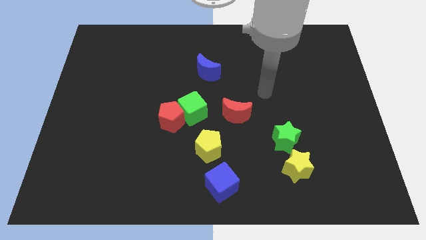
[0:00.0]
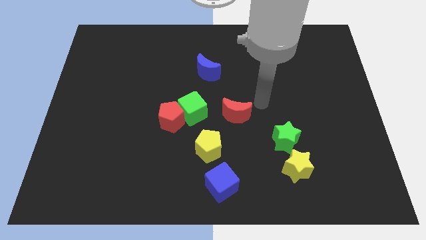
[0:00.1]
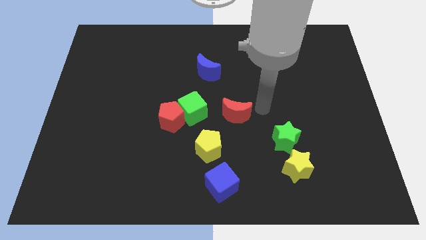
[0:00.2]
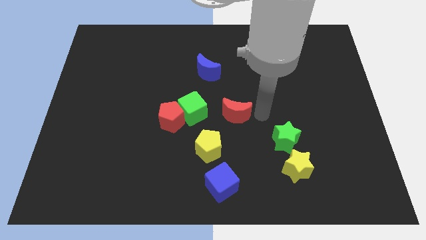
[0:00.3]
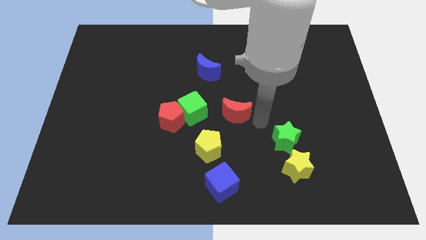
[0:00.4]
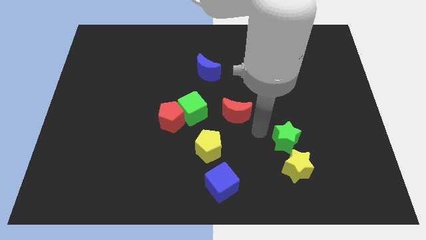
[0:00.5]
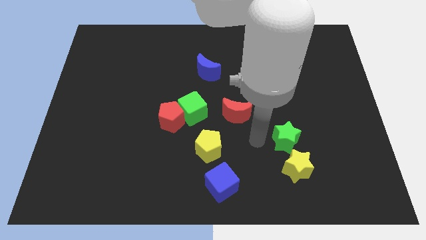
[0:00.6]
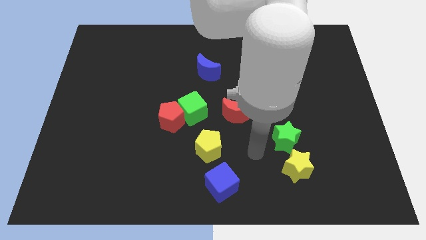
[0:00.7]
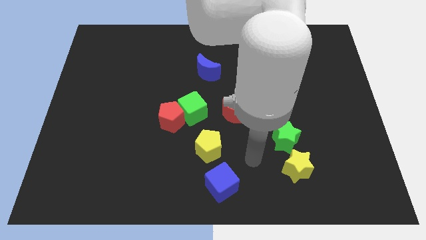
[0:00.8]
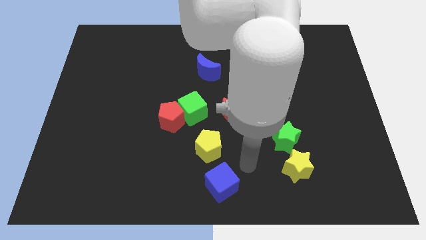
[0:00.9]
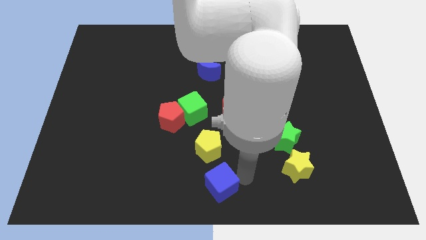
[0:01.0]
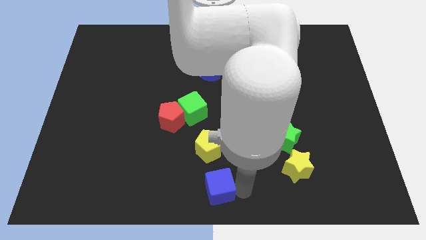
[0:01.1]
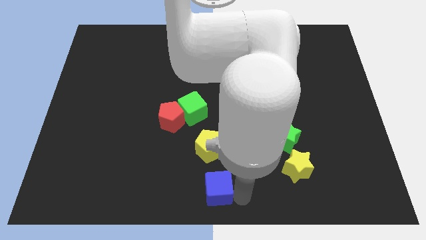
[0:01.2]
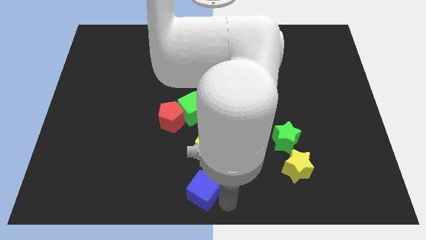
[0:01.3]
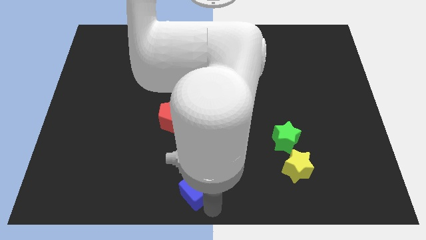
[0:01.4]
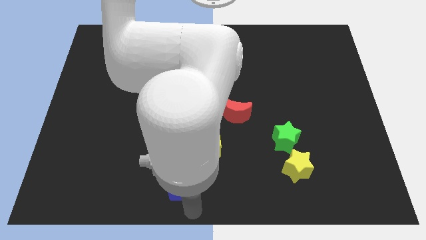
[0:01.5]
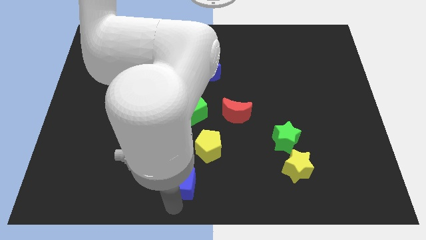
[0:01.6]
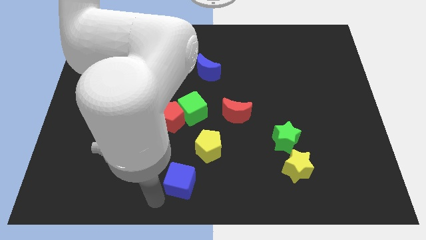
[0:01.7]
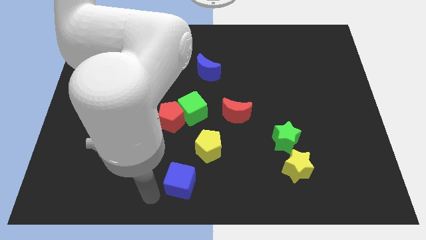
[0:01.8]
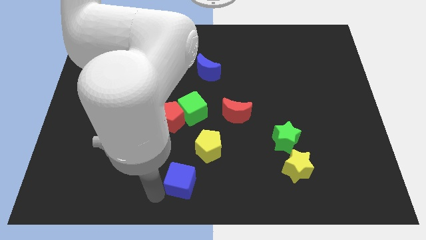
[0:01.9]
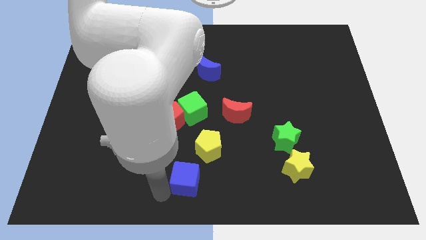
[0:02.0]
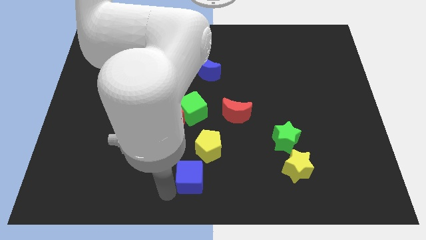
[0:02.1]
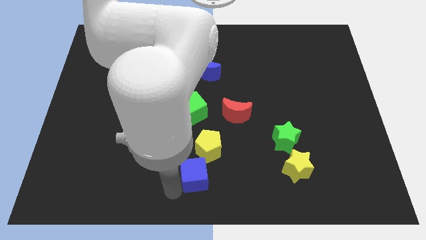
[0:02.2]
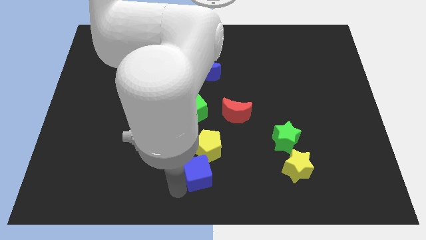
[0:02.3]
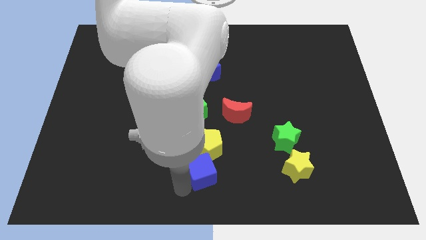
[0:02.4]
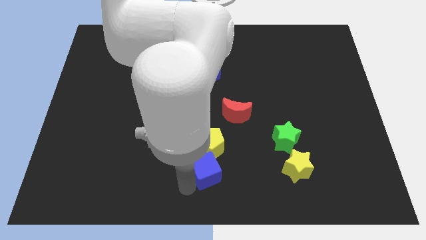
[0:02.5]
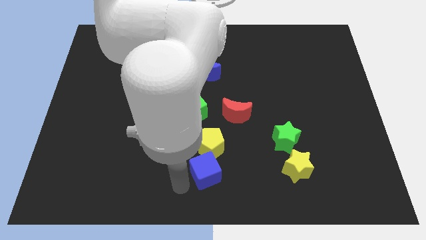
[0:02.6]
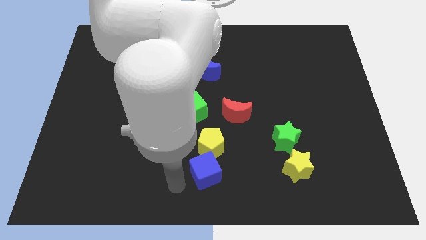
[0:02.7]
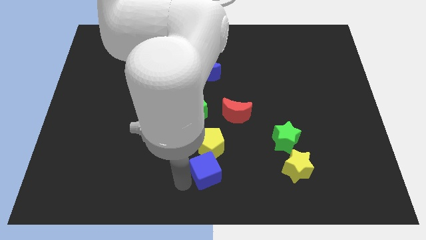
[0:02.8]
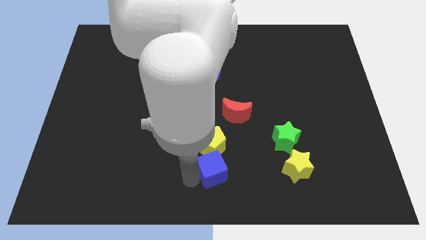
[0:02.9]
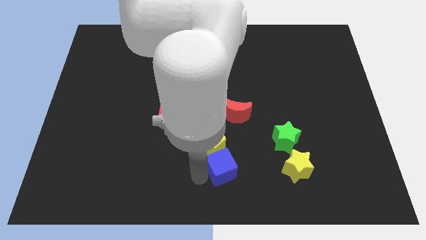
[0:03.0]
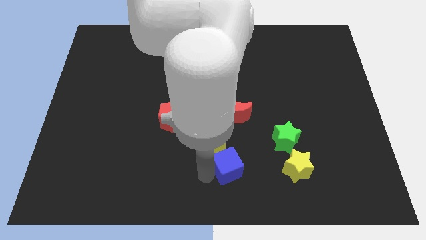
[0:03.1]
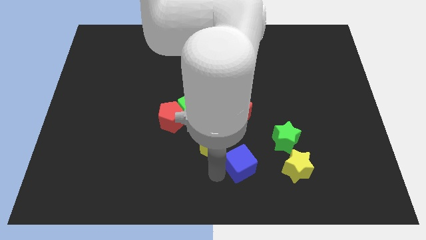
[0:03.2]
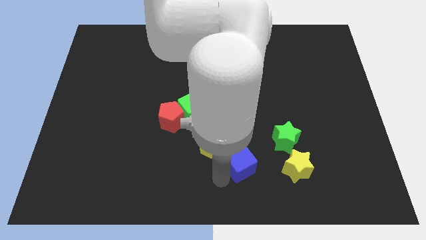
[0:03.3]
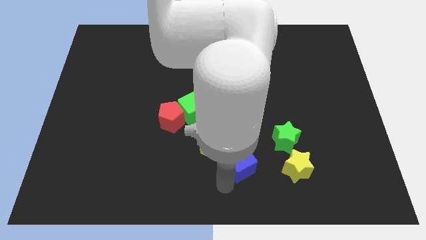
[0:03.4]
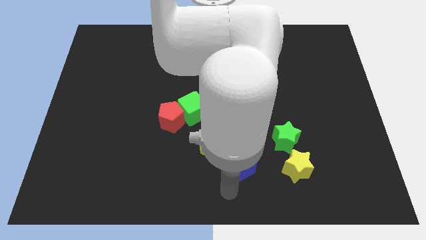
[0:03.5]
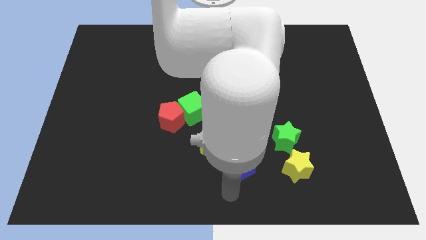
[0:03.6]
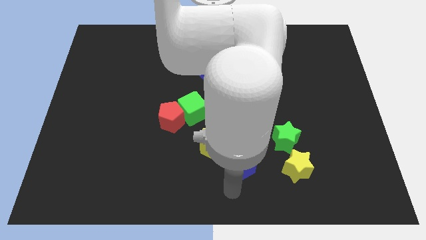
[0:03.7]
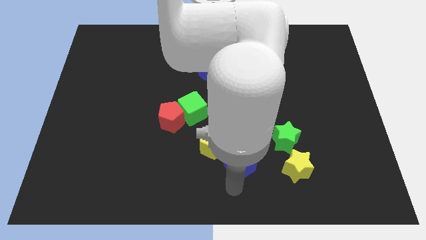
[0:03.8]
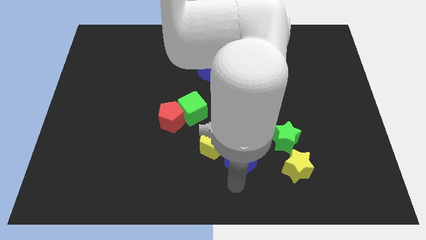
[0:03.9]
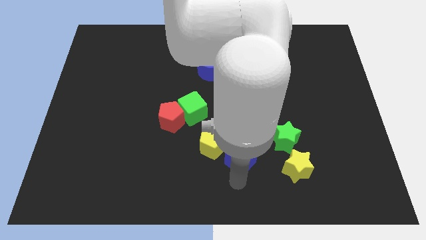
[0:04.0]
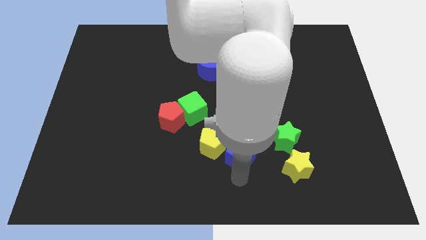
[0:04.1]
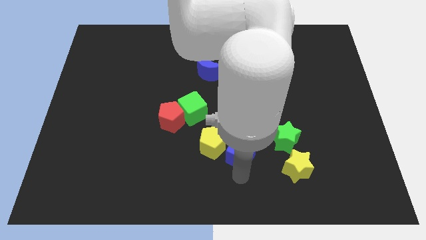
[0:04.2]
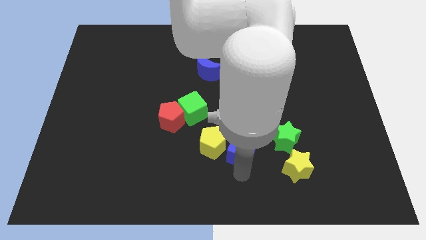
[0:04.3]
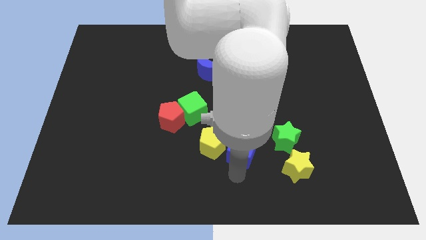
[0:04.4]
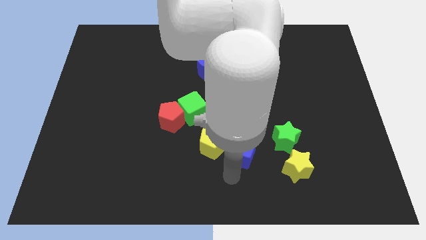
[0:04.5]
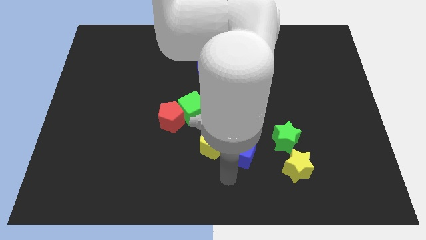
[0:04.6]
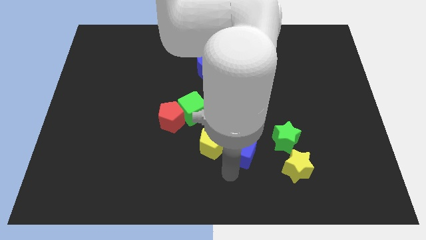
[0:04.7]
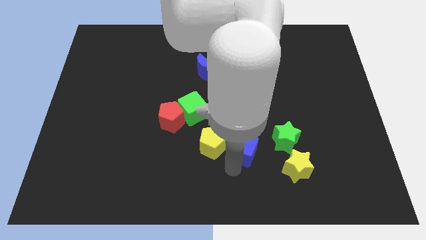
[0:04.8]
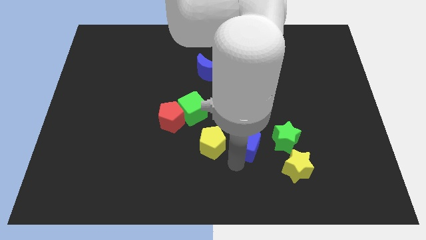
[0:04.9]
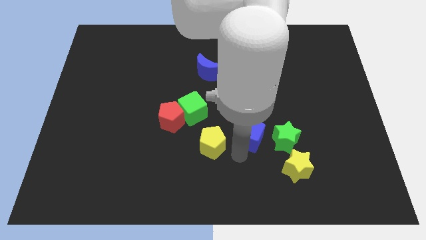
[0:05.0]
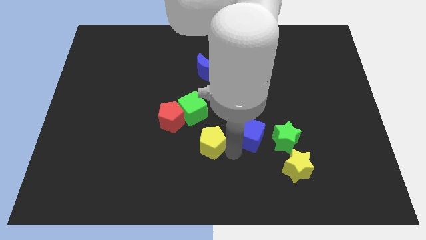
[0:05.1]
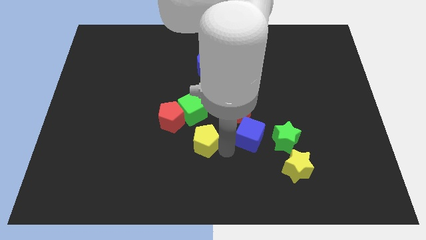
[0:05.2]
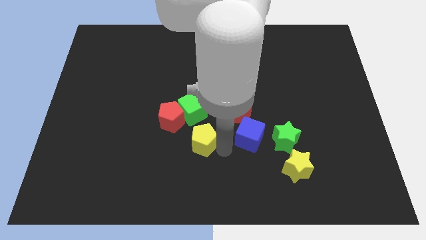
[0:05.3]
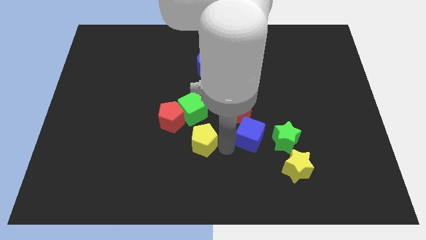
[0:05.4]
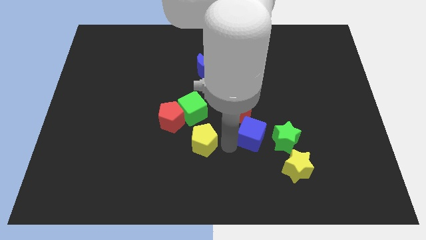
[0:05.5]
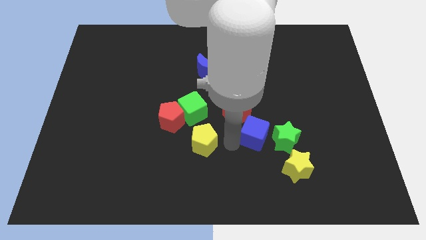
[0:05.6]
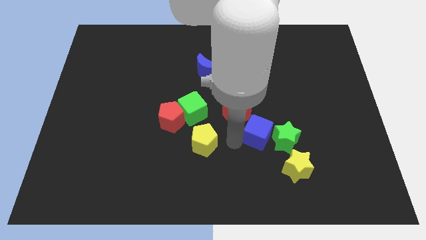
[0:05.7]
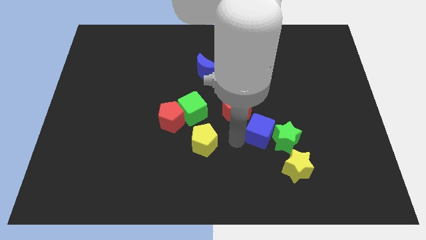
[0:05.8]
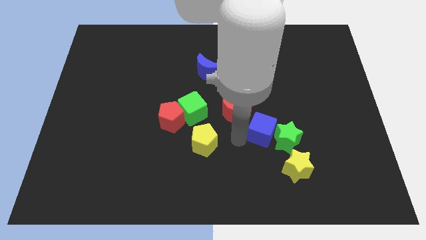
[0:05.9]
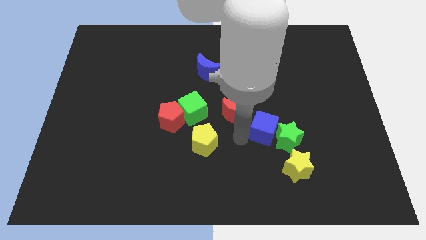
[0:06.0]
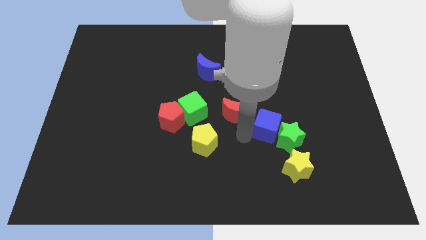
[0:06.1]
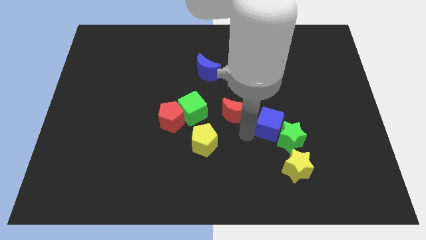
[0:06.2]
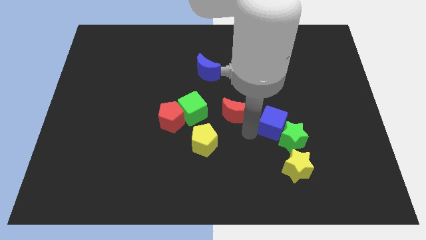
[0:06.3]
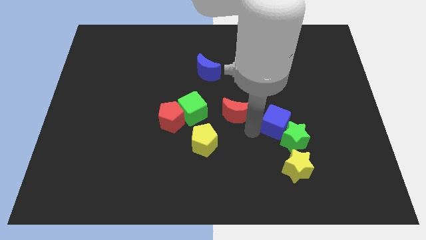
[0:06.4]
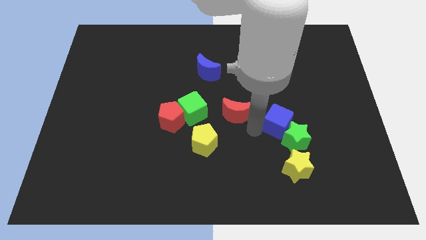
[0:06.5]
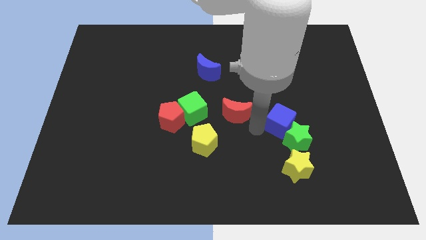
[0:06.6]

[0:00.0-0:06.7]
push the blue cube upwards and right diagonally

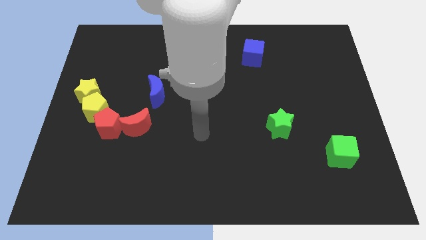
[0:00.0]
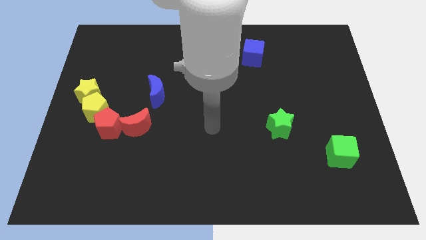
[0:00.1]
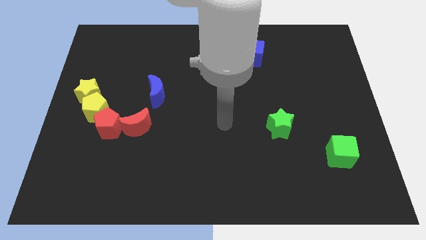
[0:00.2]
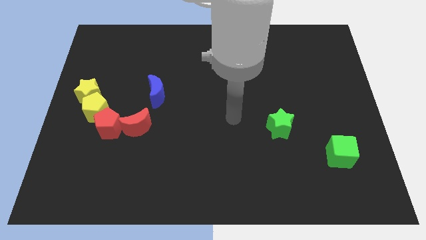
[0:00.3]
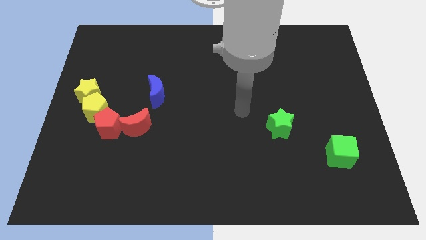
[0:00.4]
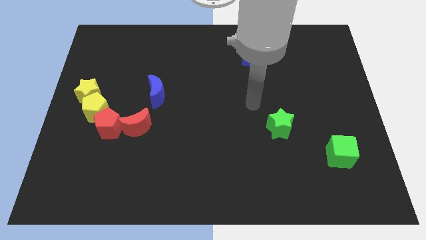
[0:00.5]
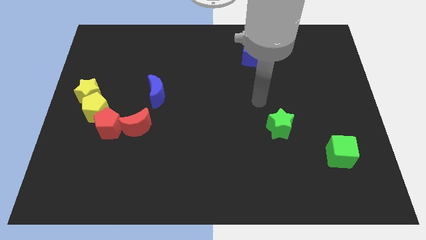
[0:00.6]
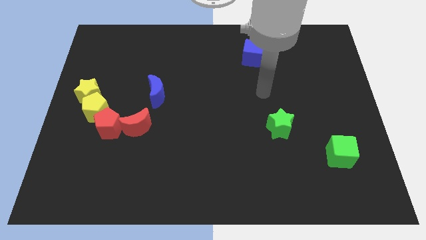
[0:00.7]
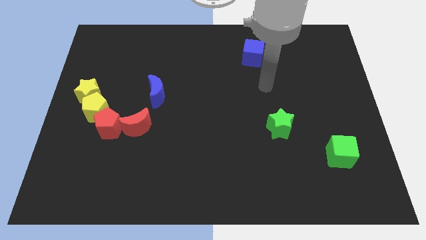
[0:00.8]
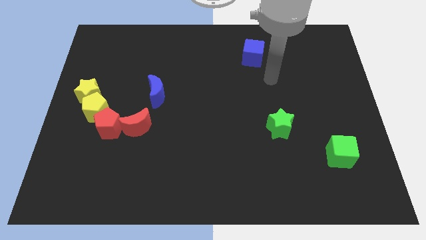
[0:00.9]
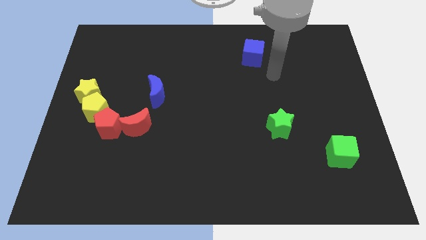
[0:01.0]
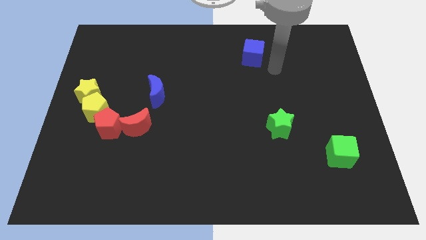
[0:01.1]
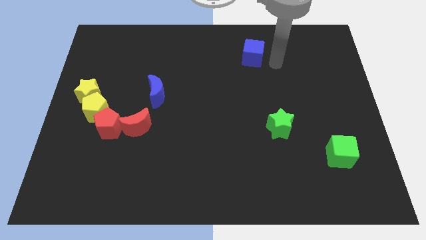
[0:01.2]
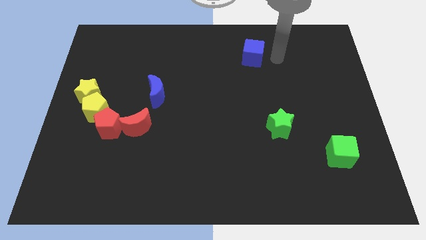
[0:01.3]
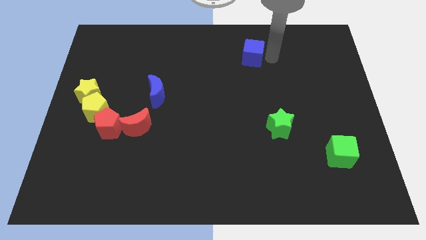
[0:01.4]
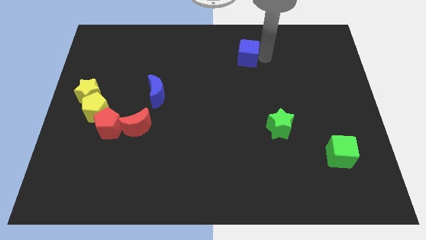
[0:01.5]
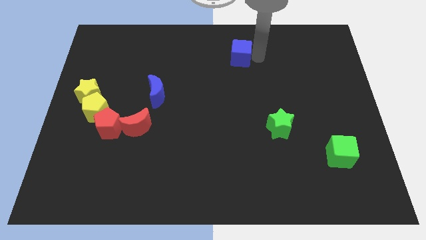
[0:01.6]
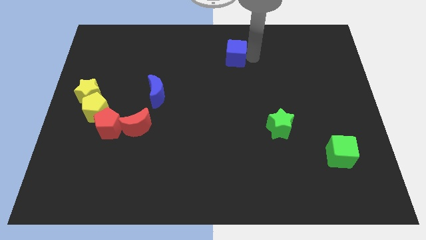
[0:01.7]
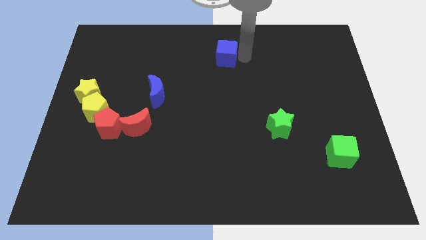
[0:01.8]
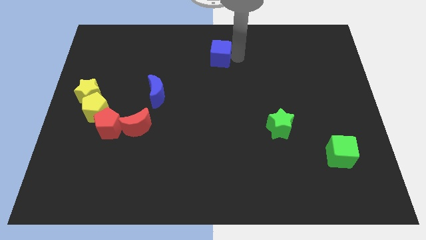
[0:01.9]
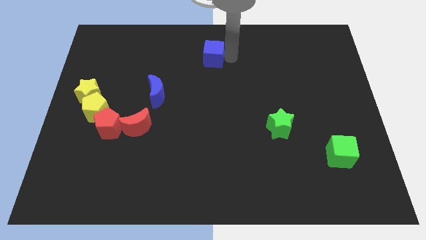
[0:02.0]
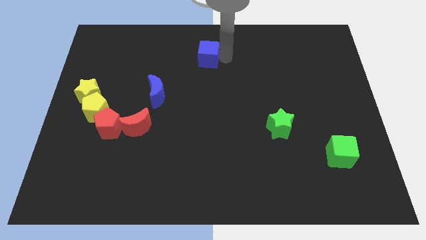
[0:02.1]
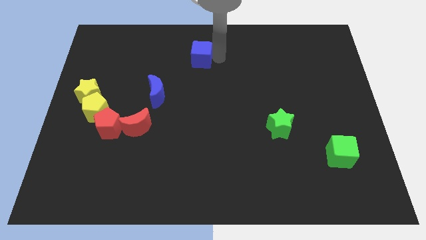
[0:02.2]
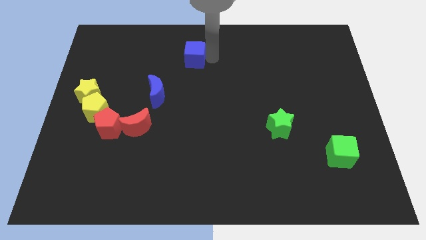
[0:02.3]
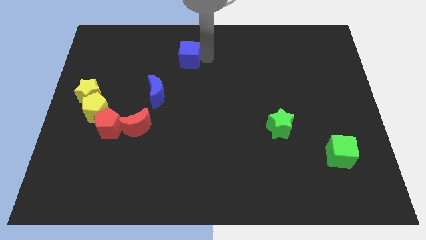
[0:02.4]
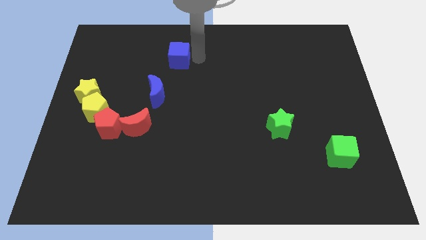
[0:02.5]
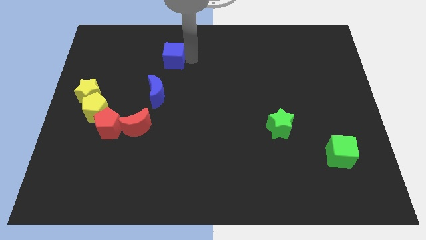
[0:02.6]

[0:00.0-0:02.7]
slide the blue cube left
